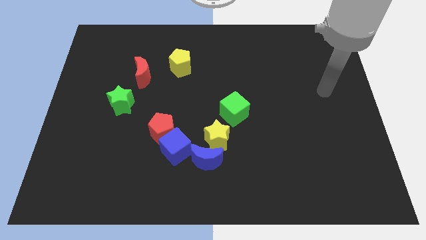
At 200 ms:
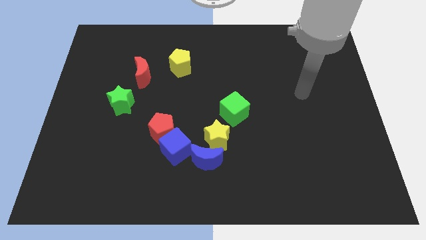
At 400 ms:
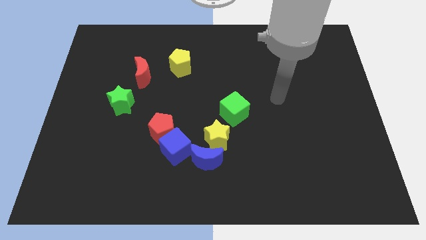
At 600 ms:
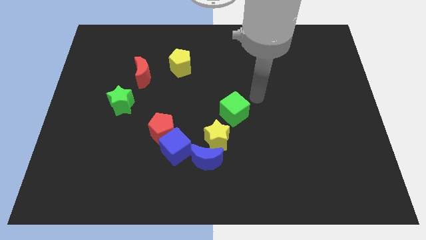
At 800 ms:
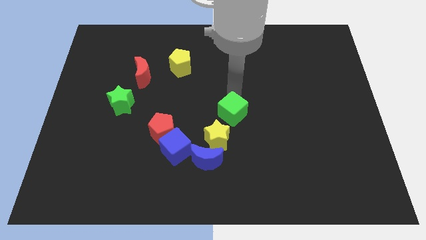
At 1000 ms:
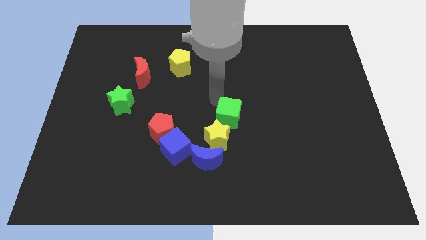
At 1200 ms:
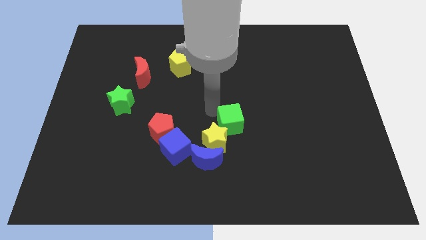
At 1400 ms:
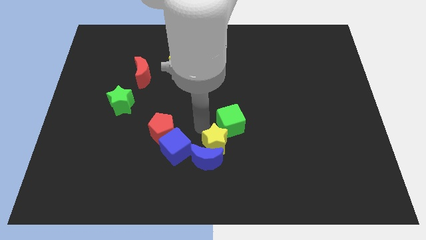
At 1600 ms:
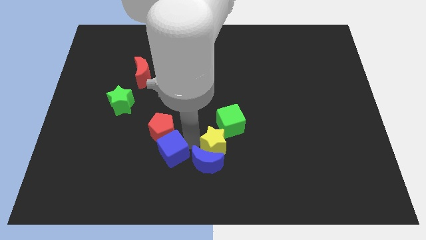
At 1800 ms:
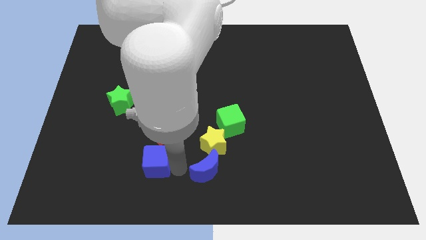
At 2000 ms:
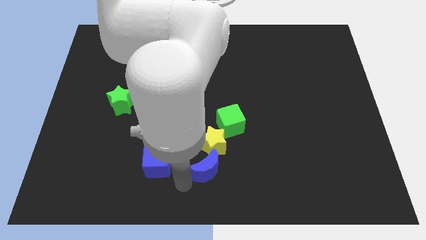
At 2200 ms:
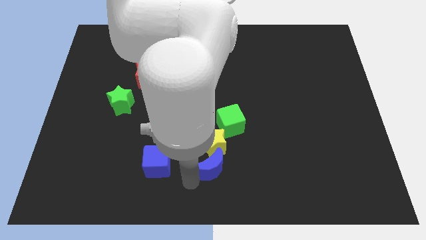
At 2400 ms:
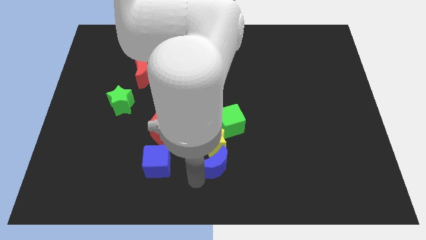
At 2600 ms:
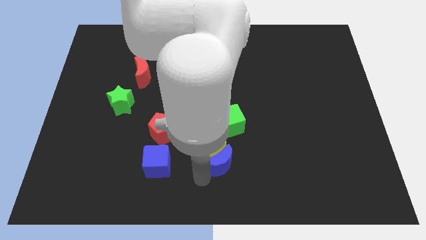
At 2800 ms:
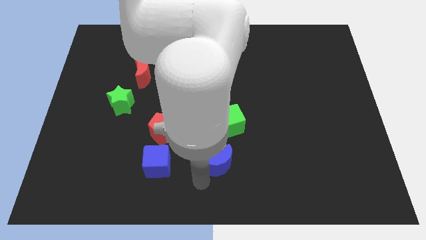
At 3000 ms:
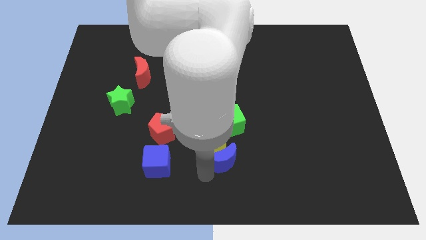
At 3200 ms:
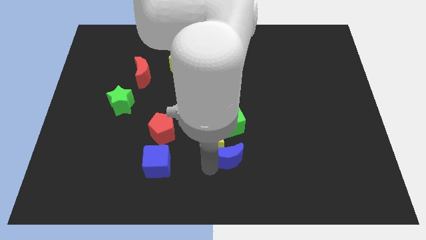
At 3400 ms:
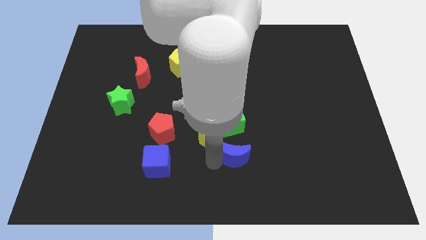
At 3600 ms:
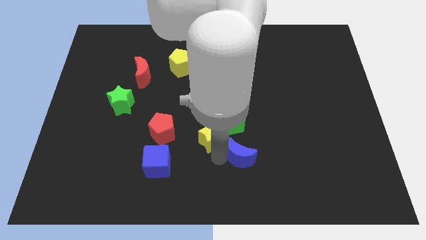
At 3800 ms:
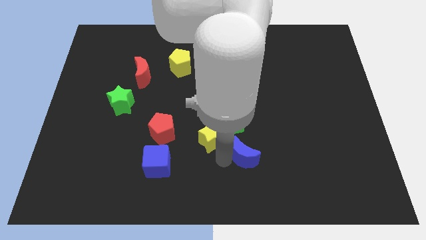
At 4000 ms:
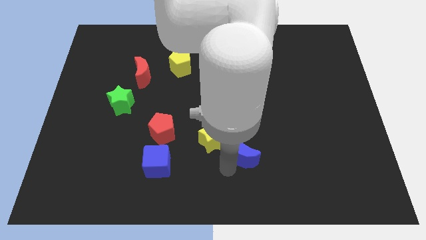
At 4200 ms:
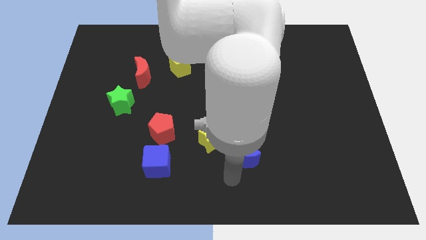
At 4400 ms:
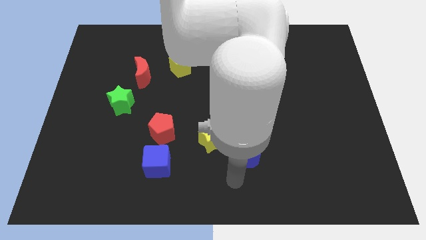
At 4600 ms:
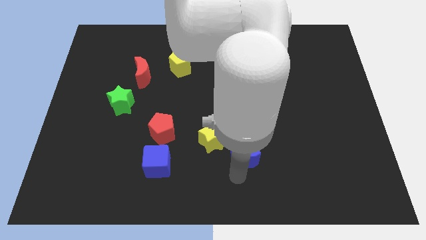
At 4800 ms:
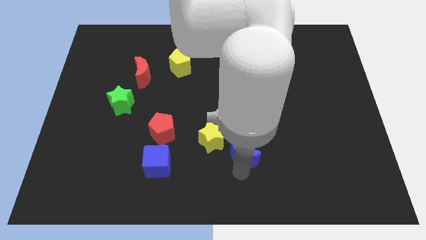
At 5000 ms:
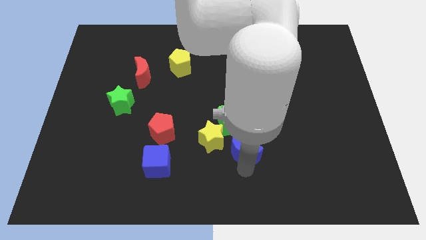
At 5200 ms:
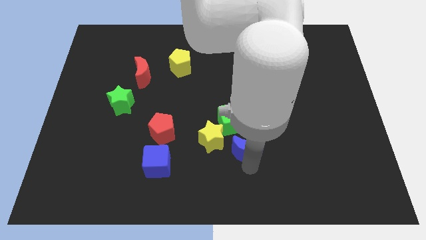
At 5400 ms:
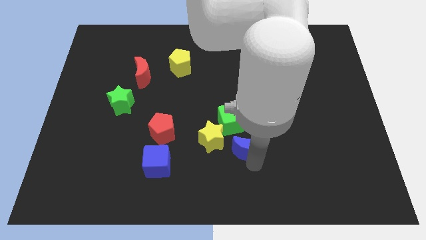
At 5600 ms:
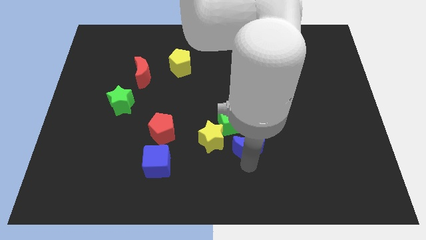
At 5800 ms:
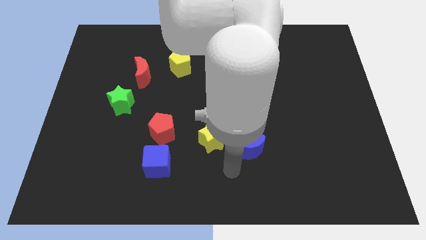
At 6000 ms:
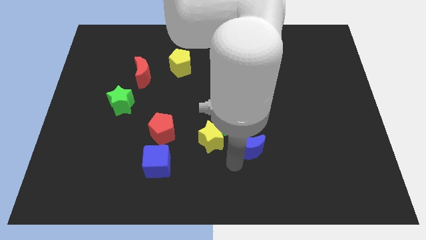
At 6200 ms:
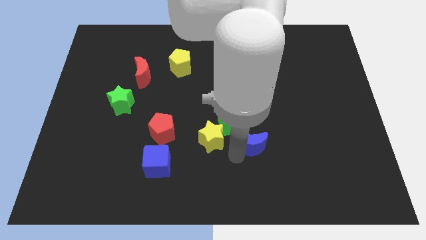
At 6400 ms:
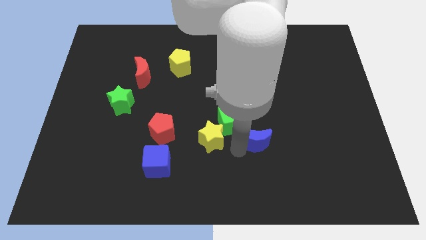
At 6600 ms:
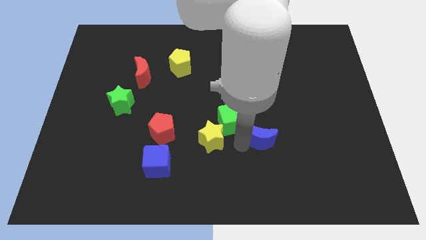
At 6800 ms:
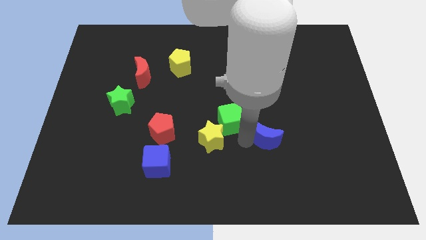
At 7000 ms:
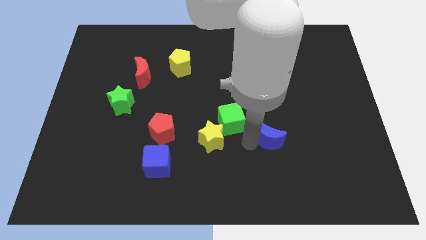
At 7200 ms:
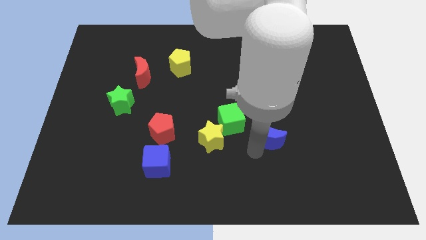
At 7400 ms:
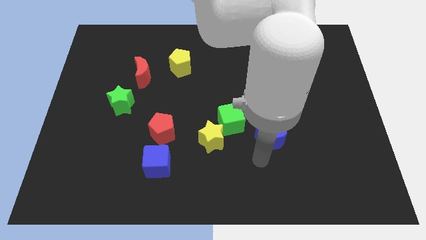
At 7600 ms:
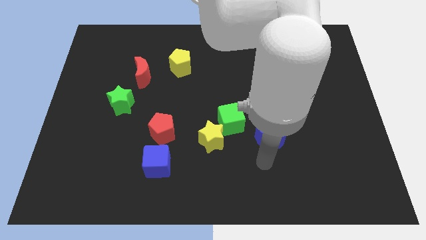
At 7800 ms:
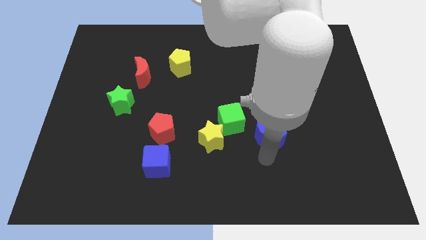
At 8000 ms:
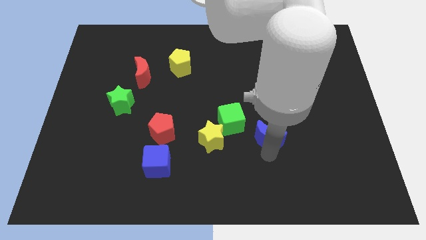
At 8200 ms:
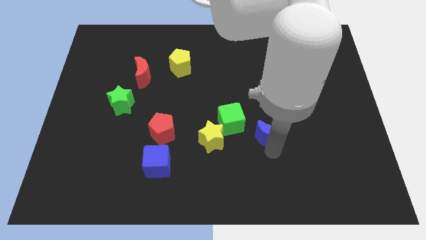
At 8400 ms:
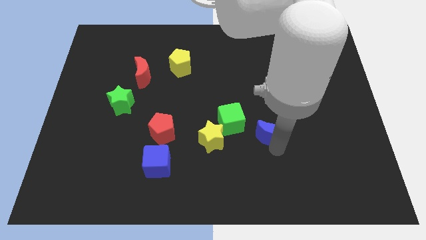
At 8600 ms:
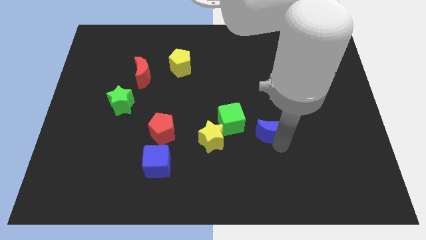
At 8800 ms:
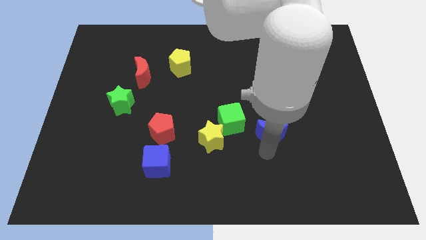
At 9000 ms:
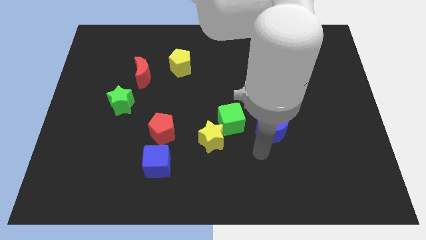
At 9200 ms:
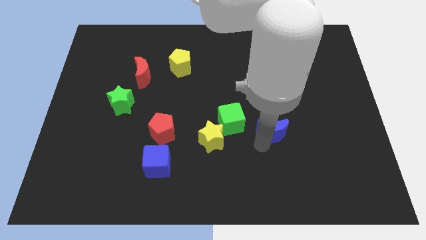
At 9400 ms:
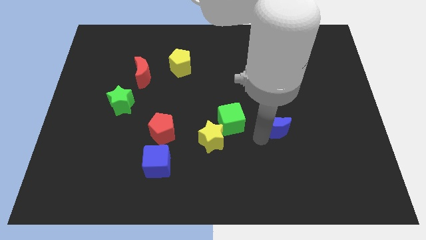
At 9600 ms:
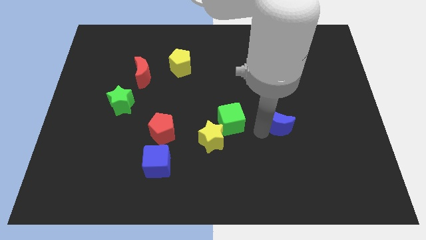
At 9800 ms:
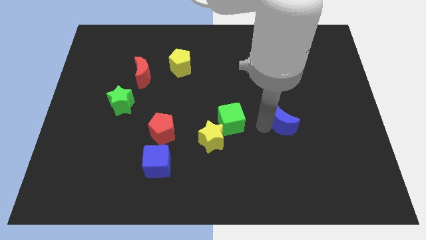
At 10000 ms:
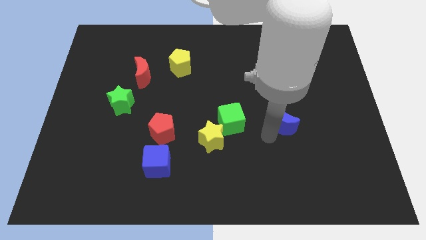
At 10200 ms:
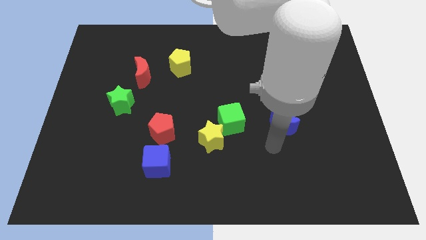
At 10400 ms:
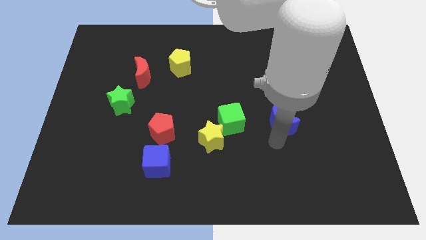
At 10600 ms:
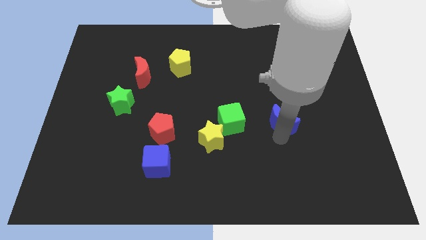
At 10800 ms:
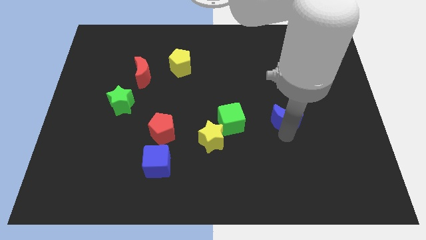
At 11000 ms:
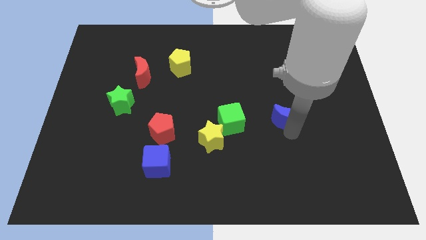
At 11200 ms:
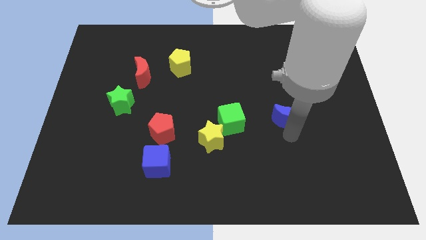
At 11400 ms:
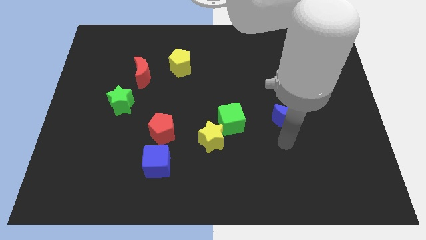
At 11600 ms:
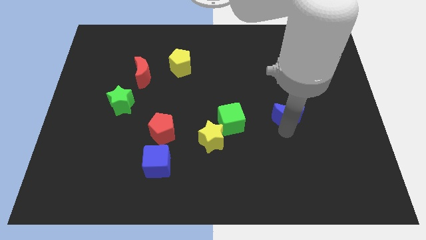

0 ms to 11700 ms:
push the blue moon up and to the right

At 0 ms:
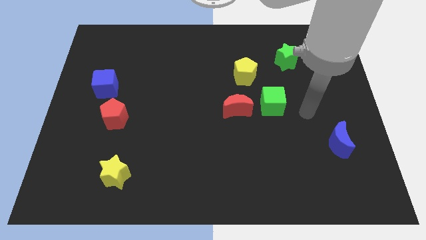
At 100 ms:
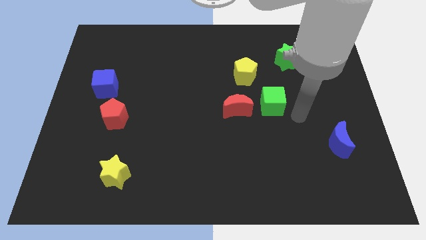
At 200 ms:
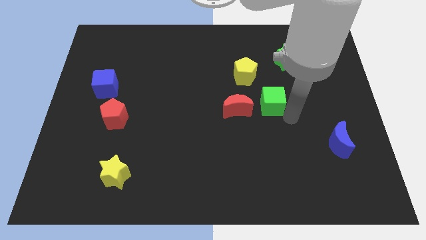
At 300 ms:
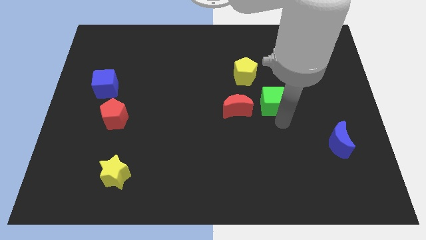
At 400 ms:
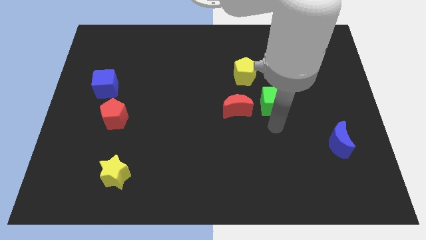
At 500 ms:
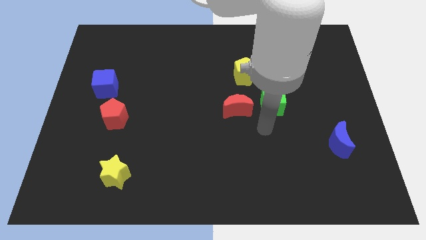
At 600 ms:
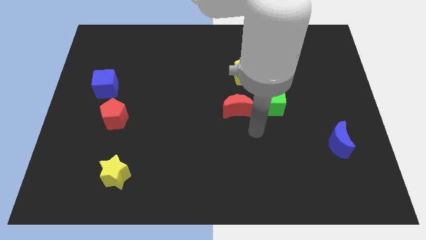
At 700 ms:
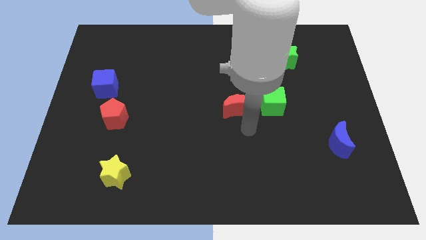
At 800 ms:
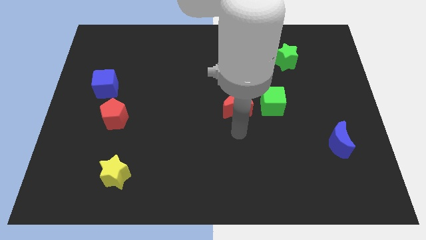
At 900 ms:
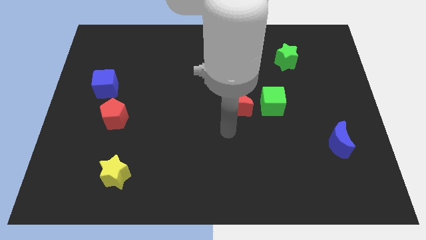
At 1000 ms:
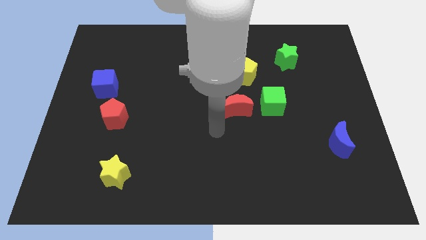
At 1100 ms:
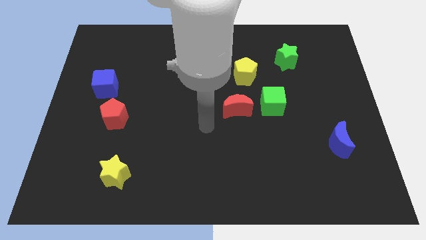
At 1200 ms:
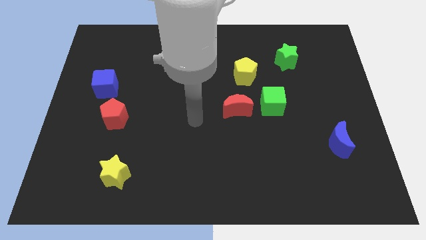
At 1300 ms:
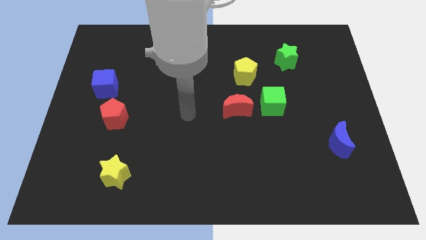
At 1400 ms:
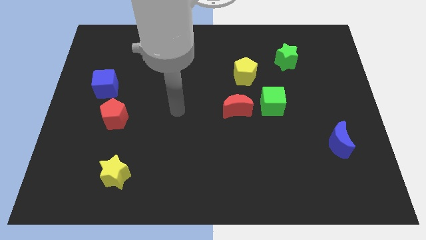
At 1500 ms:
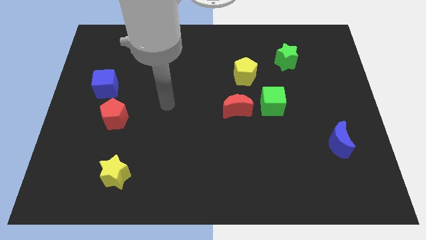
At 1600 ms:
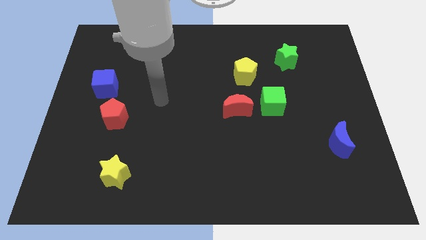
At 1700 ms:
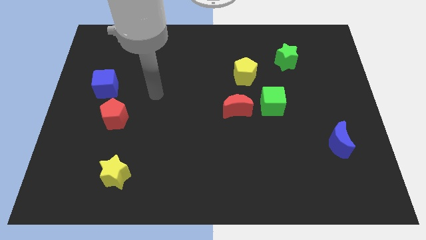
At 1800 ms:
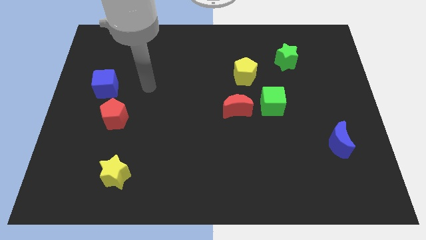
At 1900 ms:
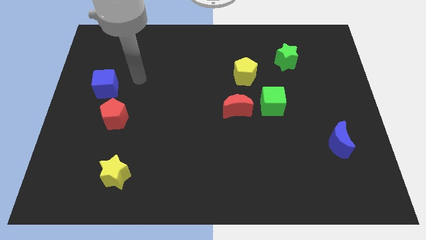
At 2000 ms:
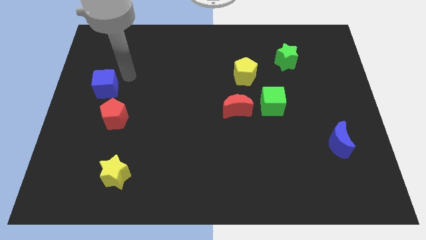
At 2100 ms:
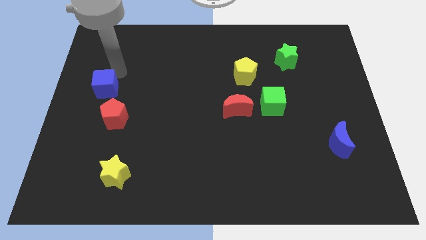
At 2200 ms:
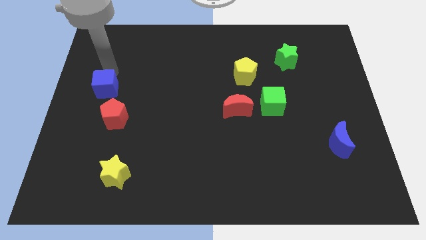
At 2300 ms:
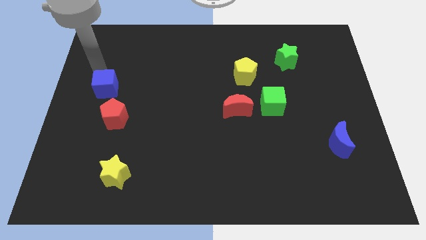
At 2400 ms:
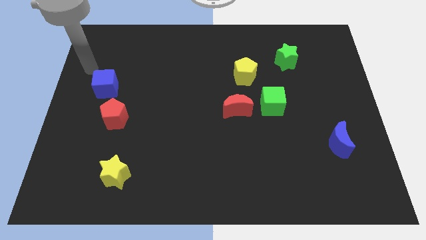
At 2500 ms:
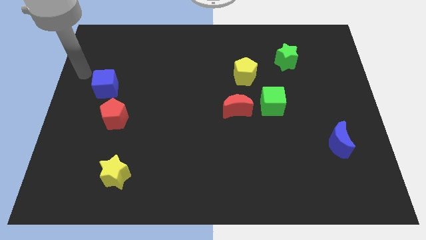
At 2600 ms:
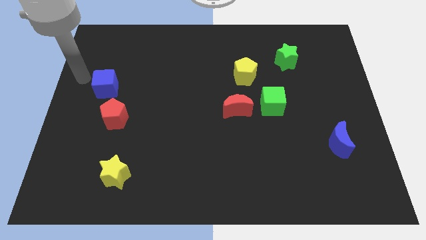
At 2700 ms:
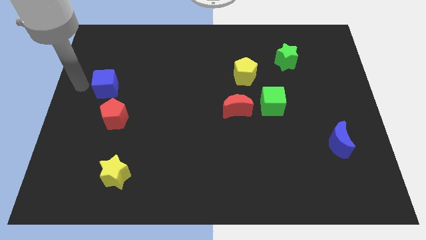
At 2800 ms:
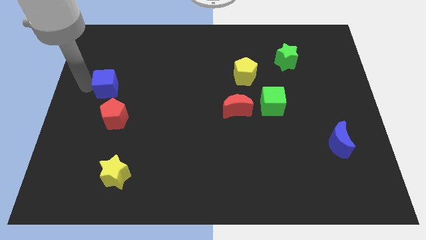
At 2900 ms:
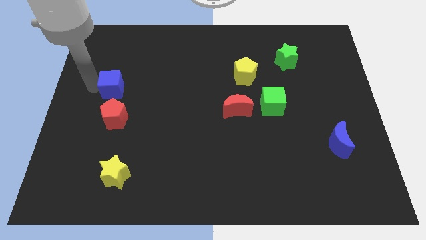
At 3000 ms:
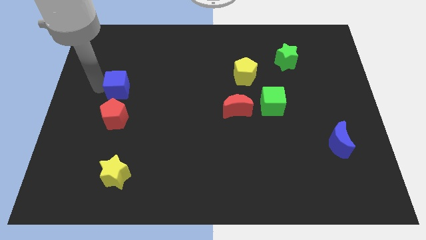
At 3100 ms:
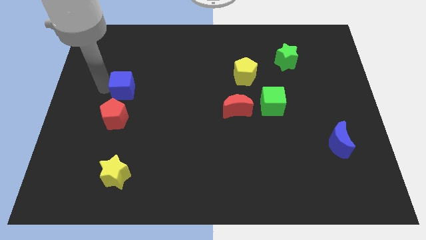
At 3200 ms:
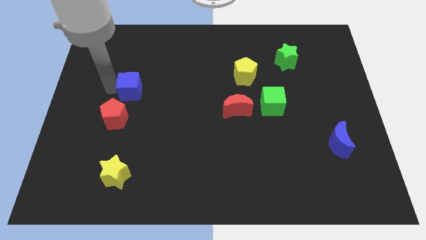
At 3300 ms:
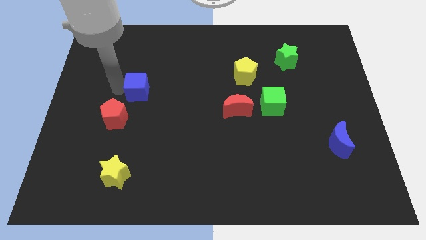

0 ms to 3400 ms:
slide the blue cube a little right
